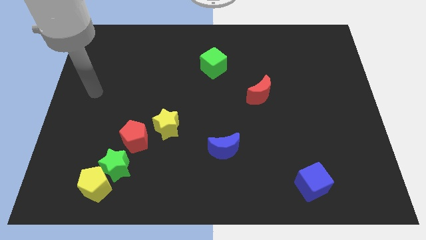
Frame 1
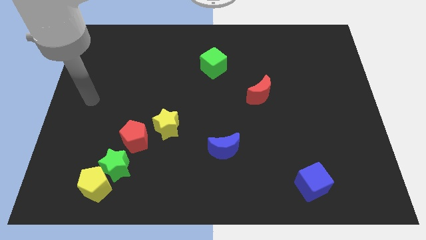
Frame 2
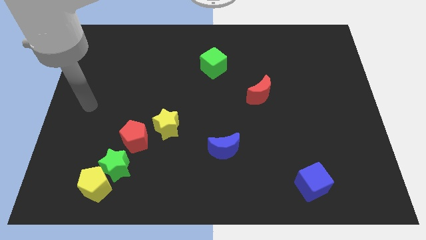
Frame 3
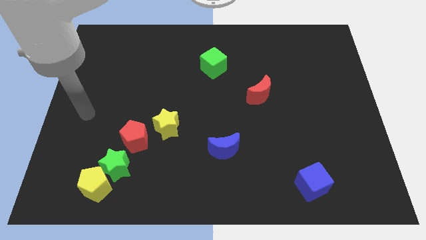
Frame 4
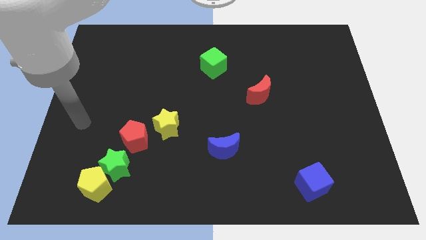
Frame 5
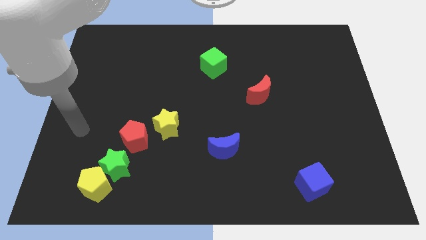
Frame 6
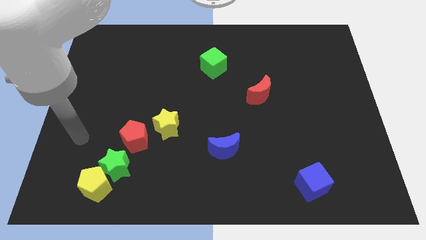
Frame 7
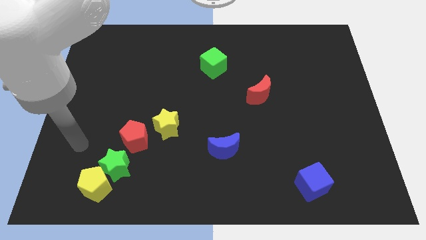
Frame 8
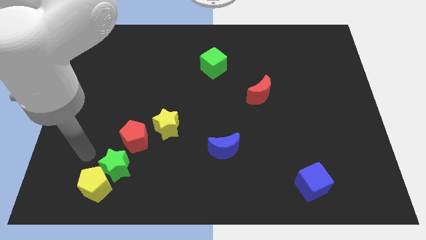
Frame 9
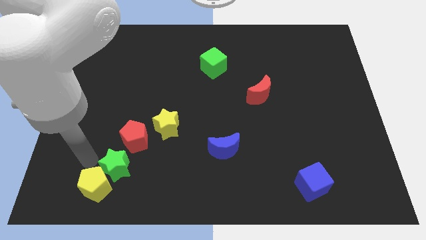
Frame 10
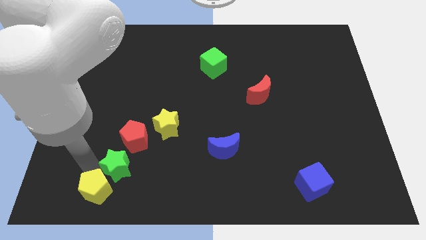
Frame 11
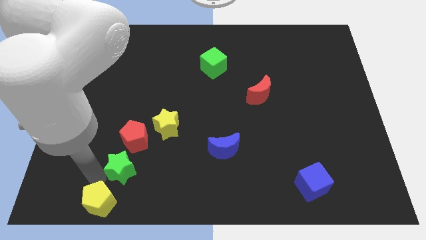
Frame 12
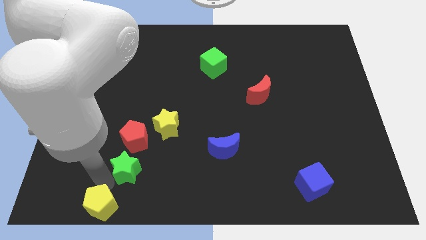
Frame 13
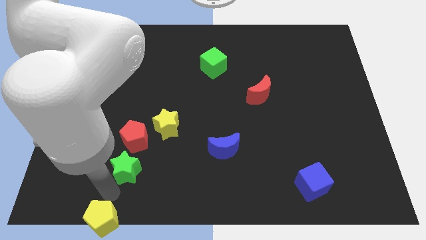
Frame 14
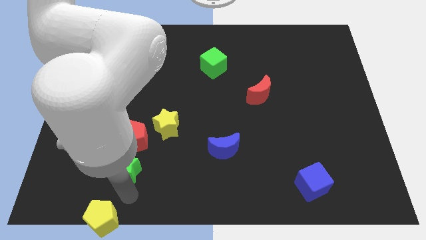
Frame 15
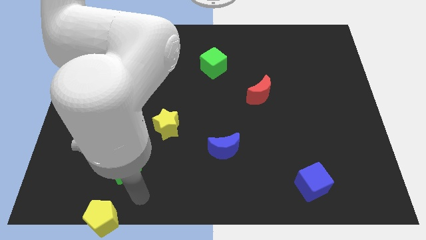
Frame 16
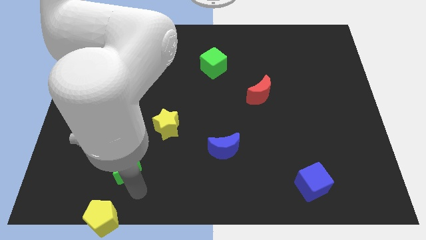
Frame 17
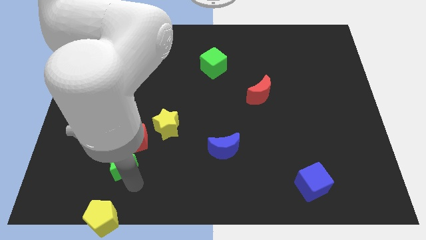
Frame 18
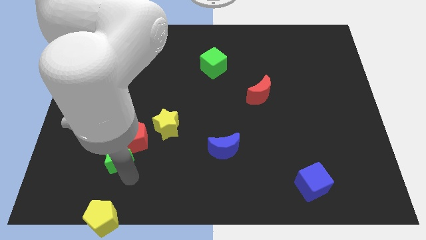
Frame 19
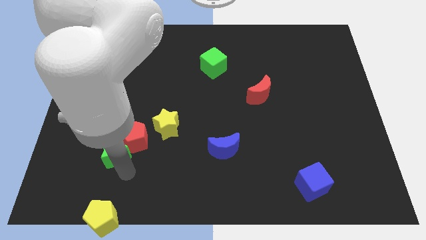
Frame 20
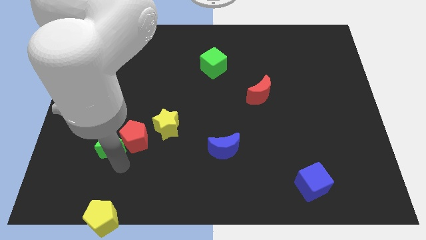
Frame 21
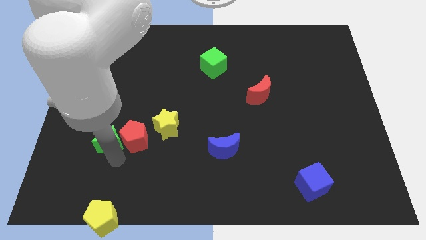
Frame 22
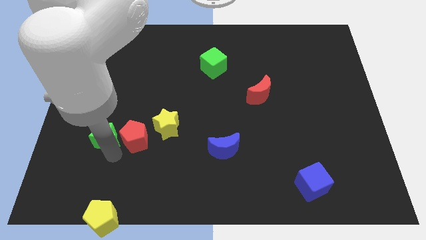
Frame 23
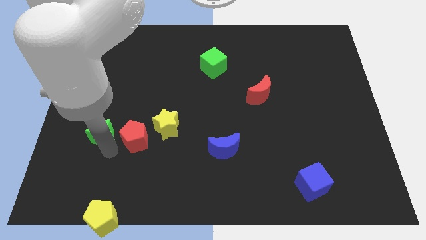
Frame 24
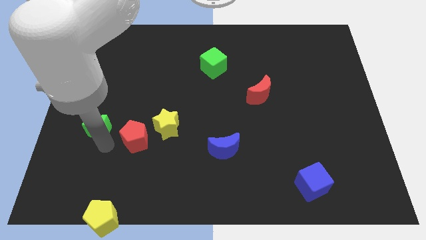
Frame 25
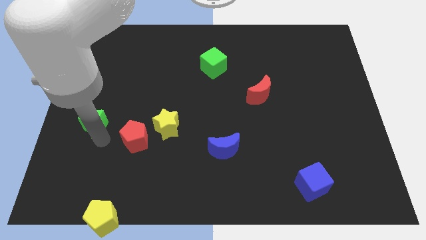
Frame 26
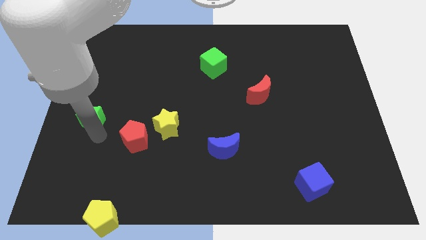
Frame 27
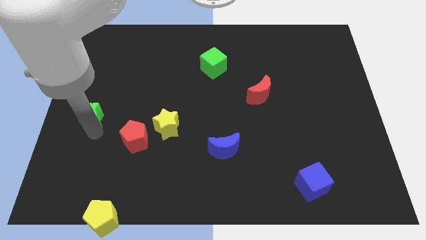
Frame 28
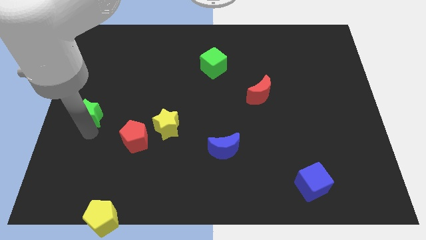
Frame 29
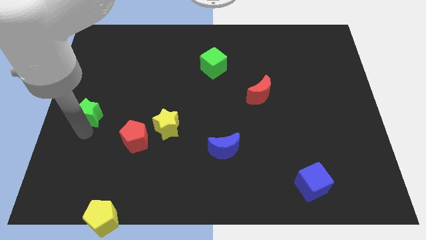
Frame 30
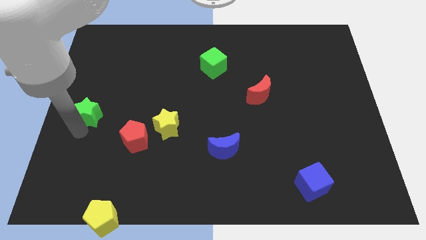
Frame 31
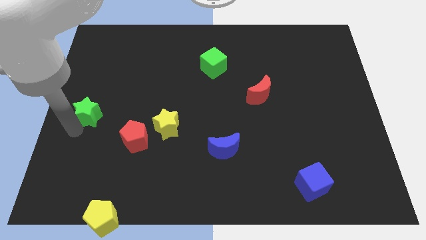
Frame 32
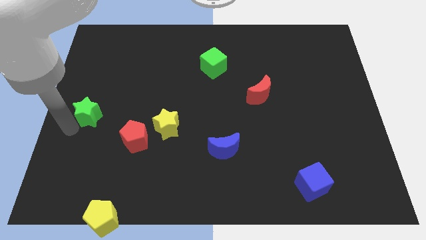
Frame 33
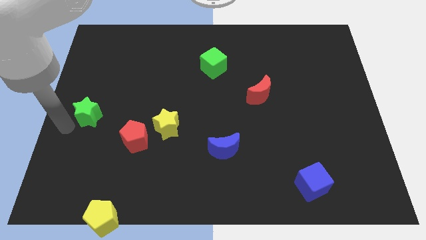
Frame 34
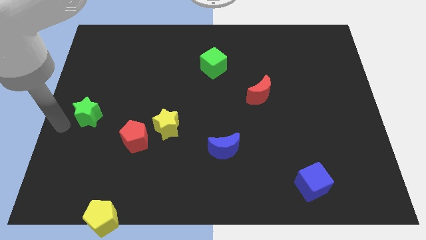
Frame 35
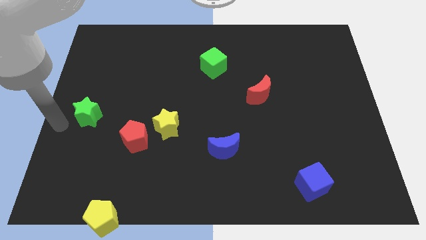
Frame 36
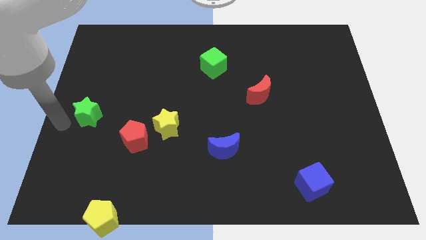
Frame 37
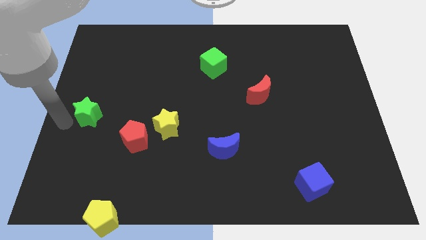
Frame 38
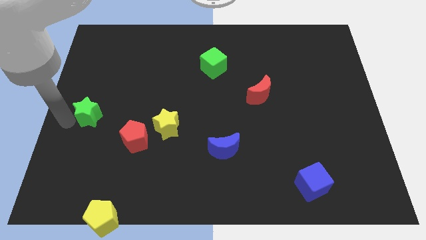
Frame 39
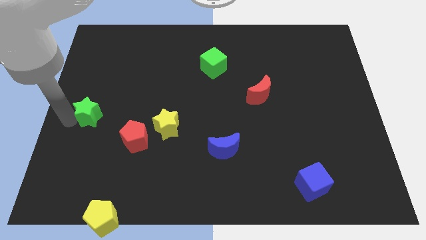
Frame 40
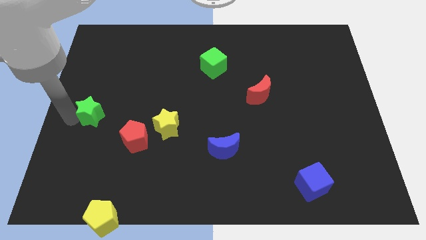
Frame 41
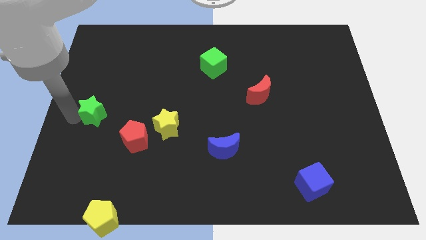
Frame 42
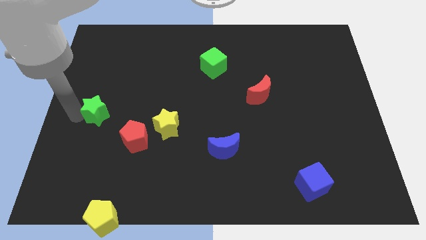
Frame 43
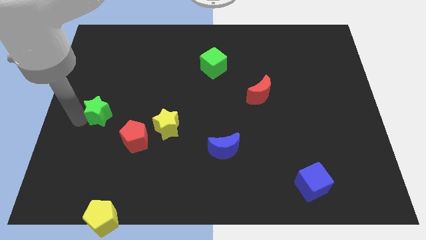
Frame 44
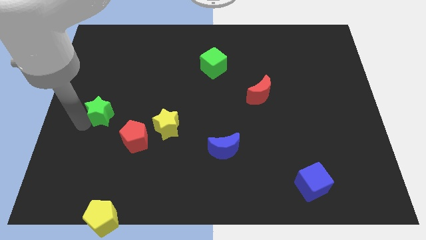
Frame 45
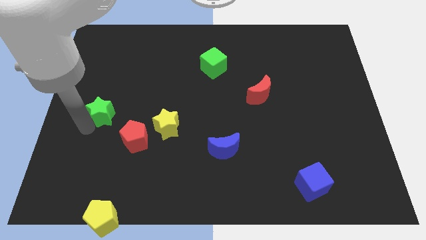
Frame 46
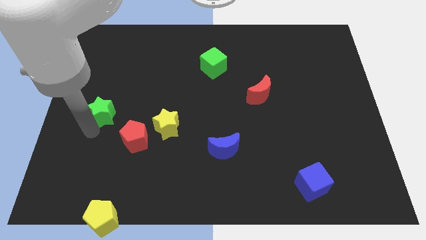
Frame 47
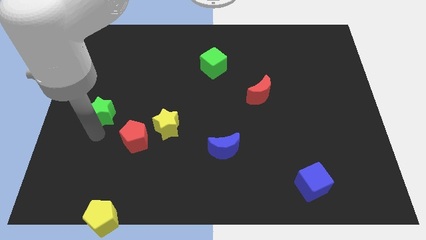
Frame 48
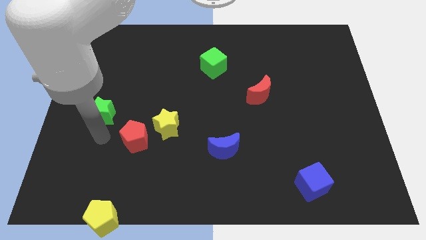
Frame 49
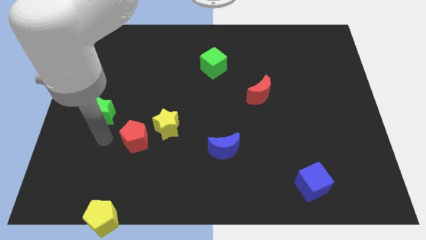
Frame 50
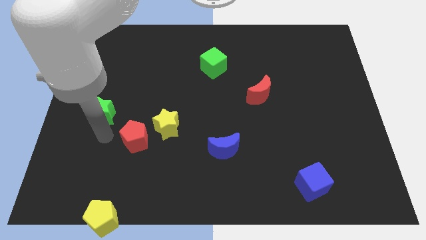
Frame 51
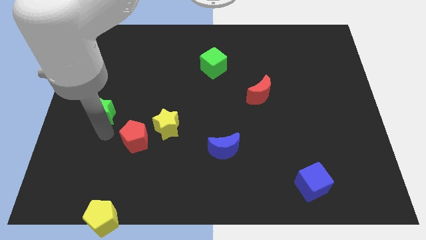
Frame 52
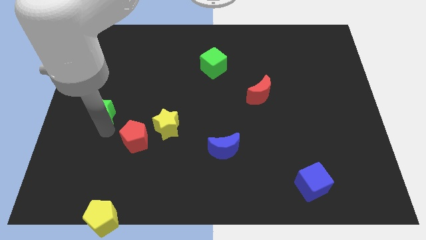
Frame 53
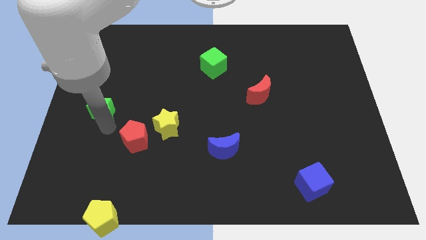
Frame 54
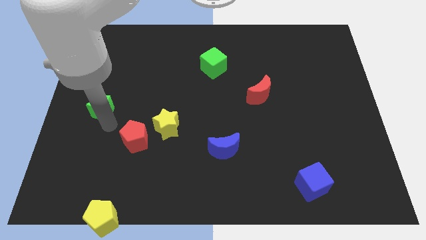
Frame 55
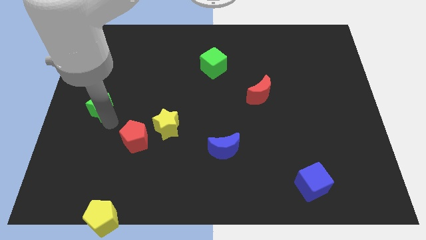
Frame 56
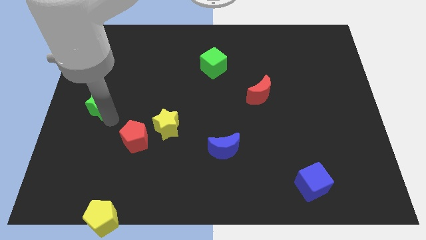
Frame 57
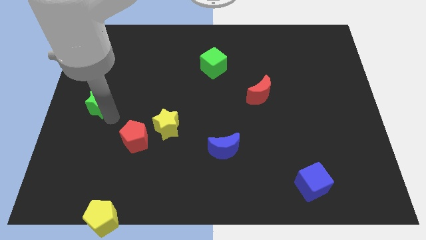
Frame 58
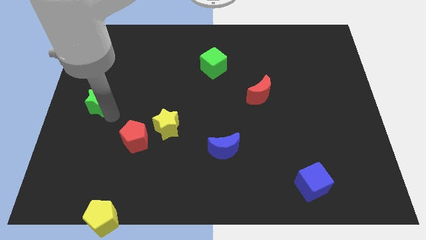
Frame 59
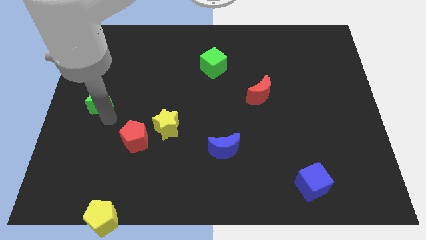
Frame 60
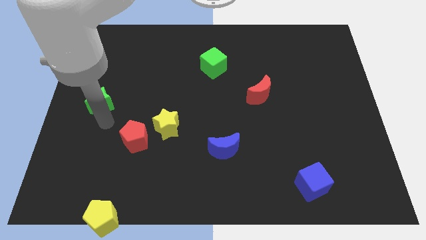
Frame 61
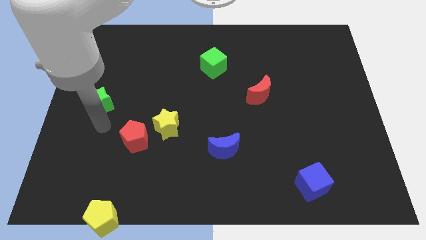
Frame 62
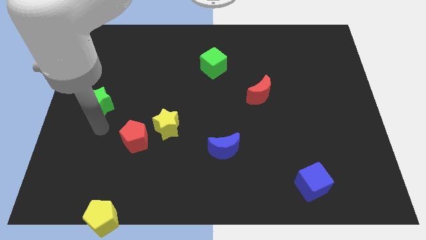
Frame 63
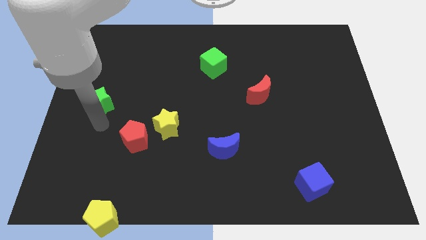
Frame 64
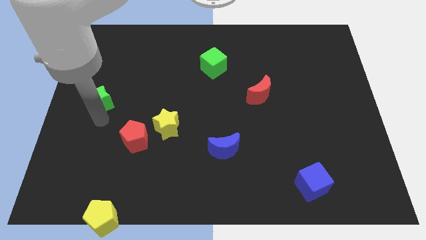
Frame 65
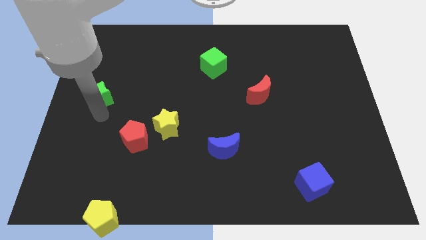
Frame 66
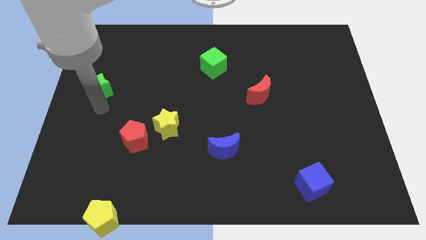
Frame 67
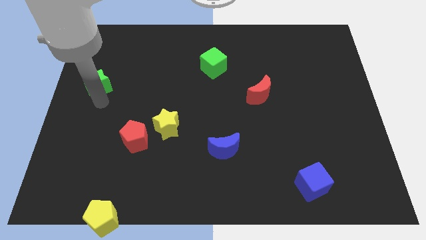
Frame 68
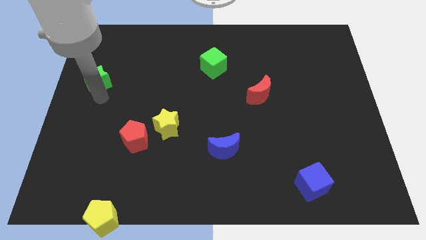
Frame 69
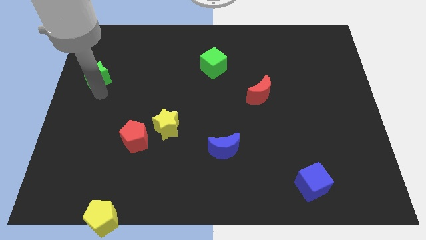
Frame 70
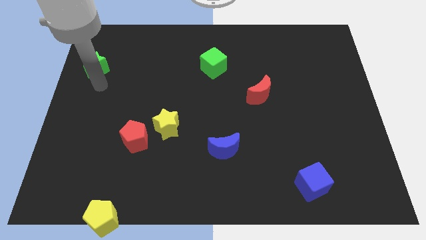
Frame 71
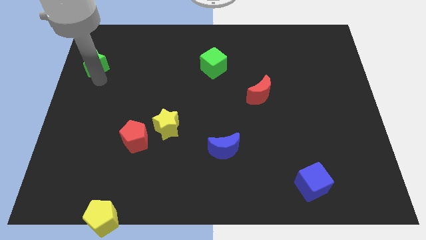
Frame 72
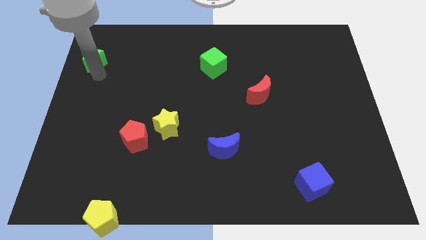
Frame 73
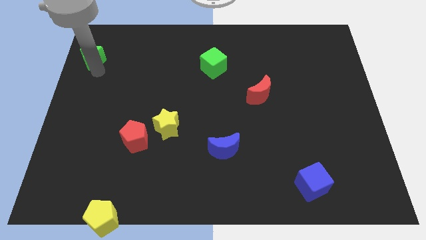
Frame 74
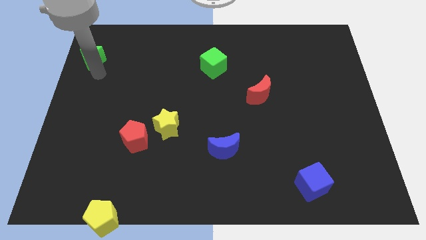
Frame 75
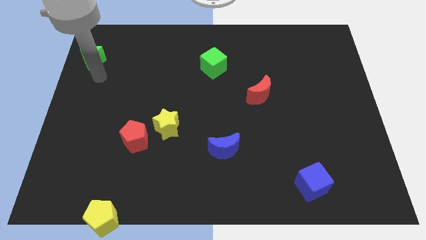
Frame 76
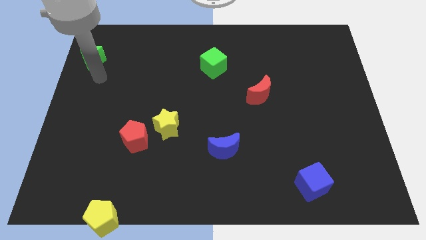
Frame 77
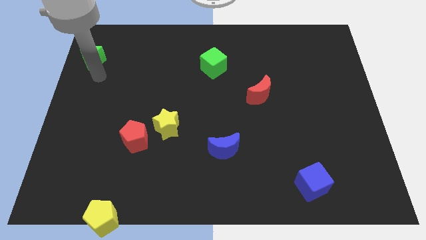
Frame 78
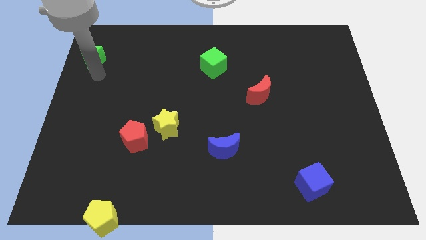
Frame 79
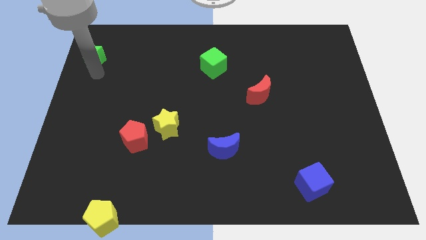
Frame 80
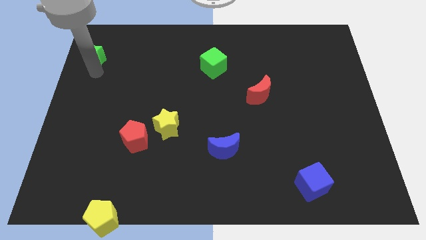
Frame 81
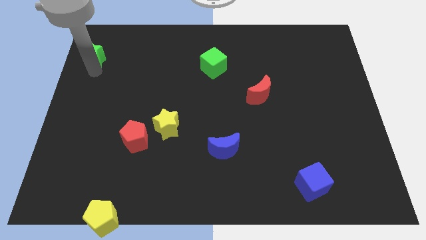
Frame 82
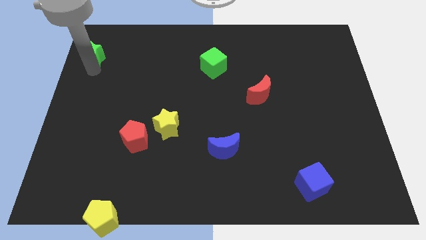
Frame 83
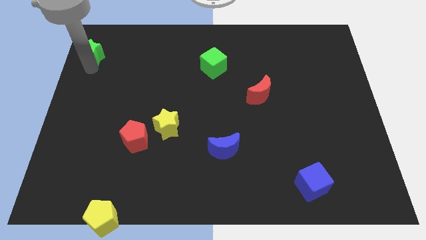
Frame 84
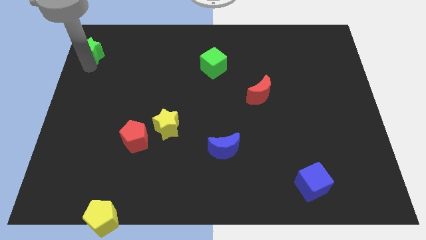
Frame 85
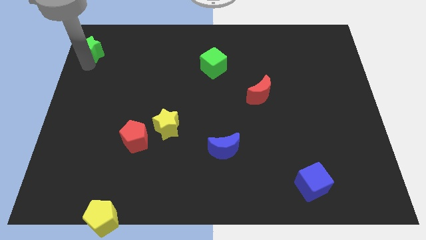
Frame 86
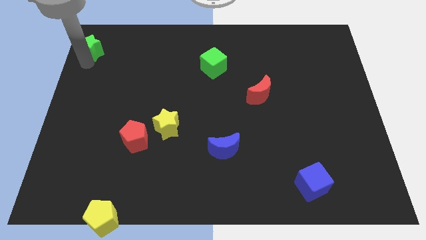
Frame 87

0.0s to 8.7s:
push the green star to the upper left corner
